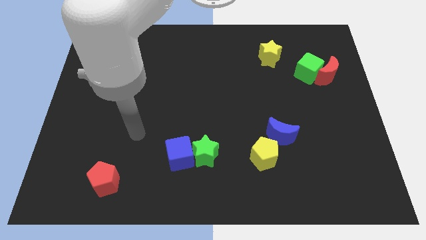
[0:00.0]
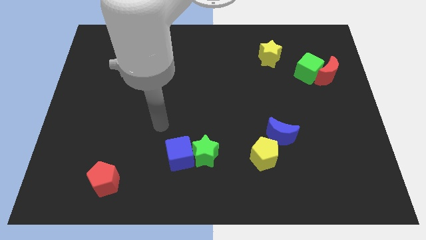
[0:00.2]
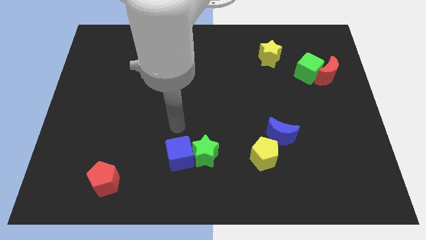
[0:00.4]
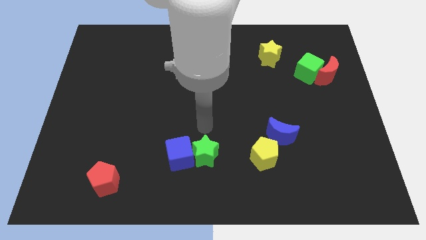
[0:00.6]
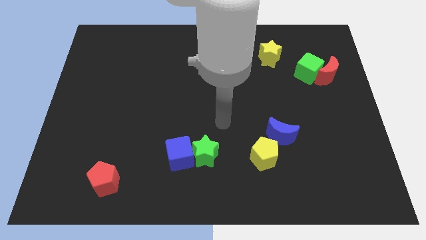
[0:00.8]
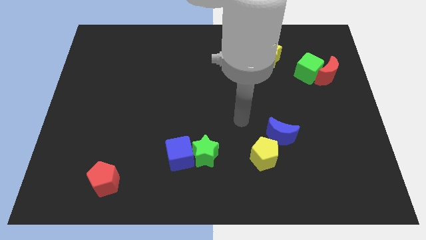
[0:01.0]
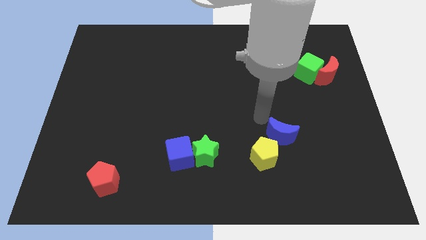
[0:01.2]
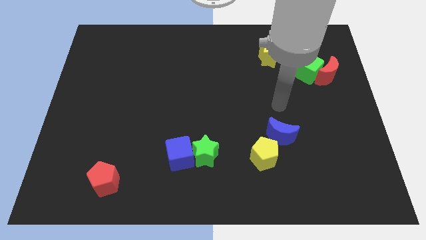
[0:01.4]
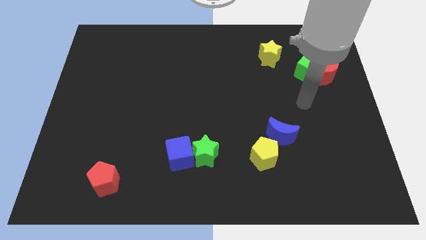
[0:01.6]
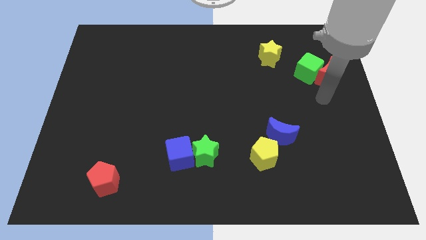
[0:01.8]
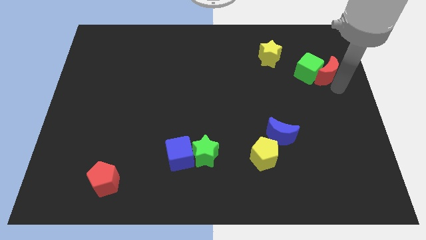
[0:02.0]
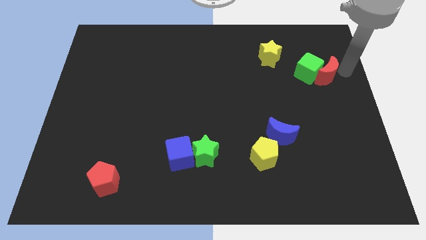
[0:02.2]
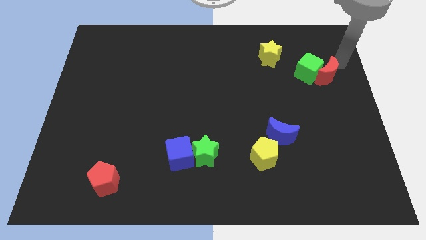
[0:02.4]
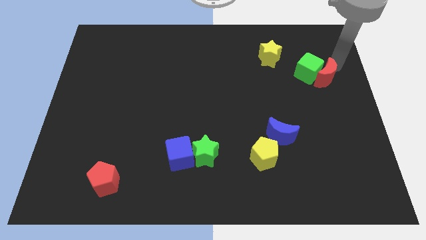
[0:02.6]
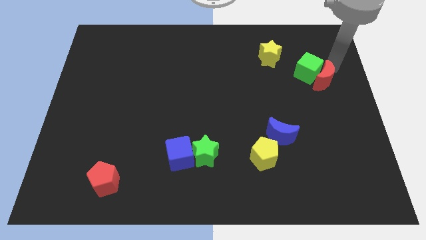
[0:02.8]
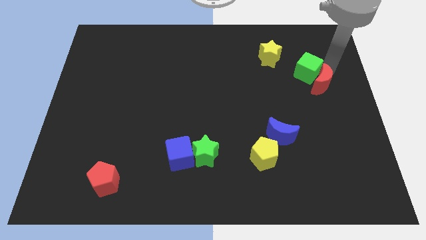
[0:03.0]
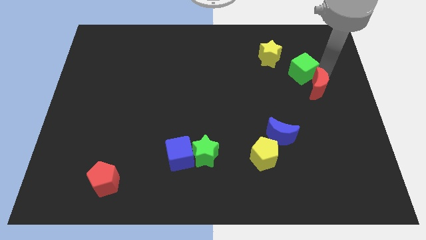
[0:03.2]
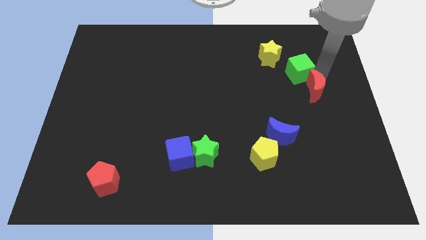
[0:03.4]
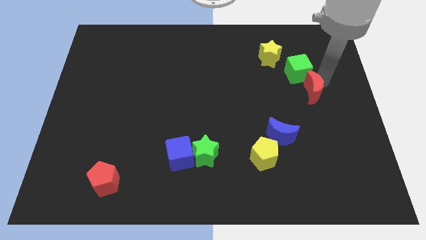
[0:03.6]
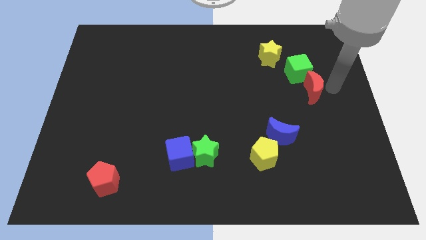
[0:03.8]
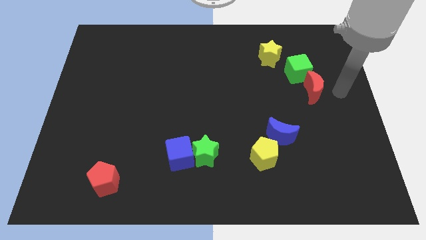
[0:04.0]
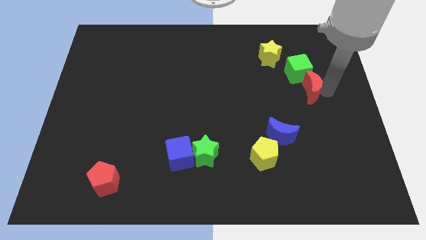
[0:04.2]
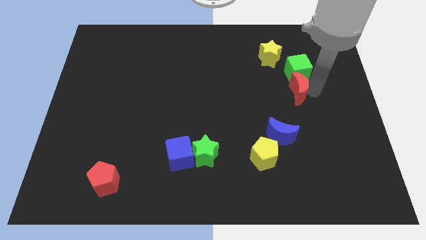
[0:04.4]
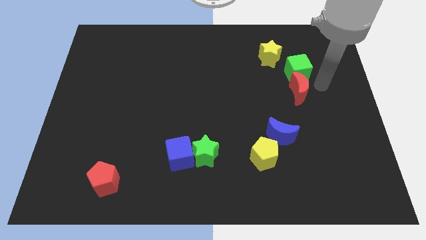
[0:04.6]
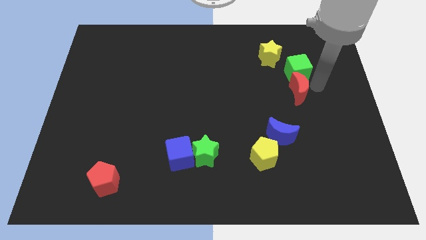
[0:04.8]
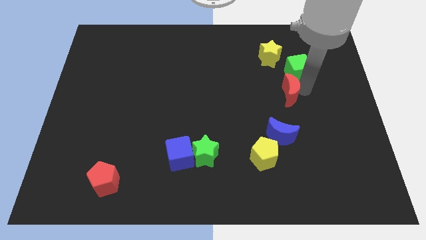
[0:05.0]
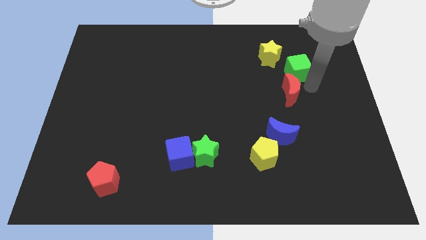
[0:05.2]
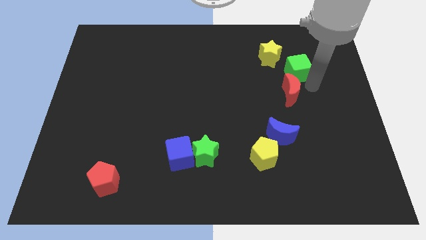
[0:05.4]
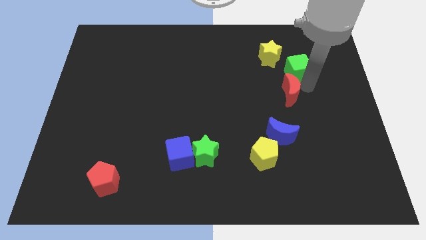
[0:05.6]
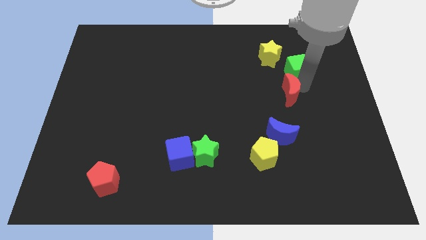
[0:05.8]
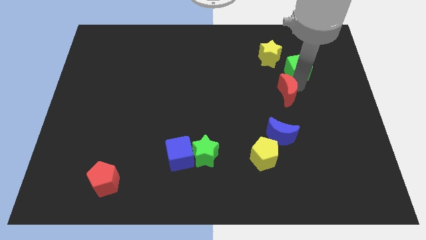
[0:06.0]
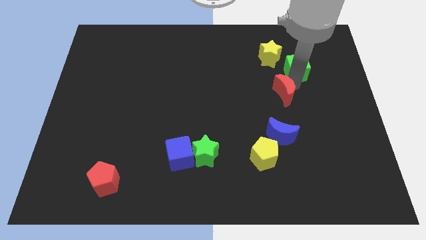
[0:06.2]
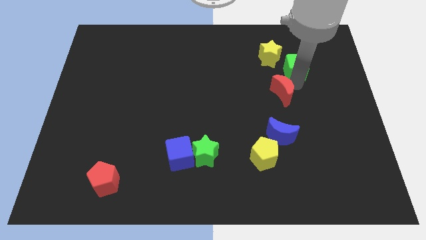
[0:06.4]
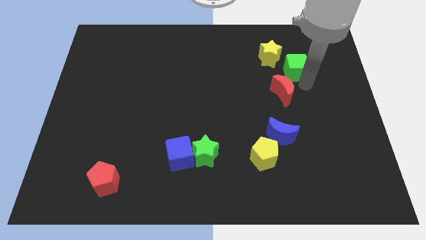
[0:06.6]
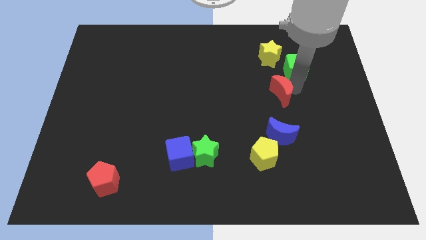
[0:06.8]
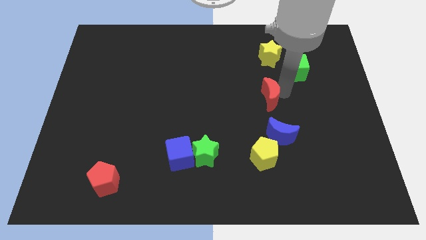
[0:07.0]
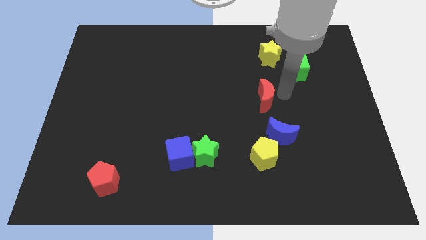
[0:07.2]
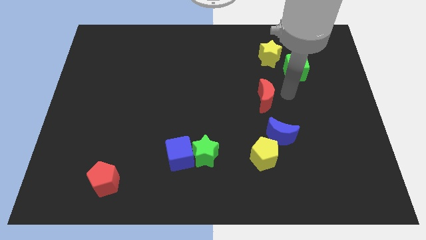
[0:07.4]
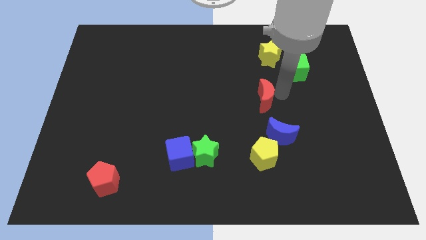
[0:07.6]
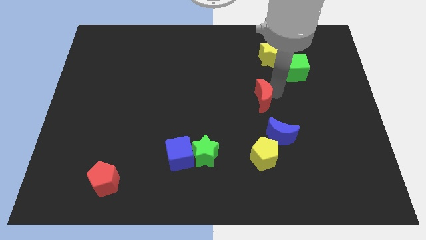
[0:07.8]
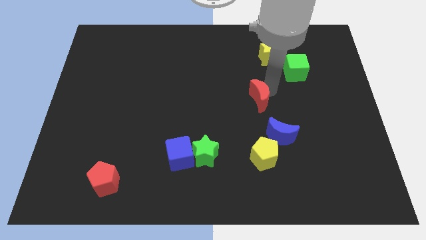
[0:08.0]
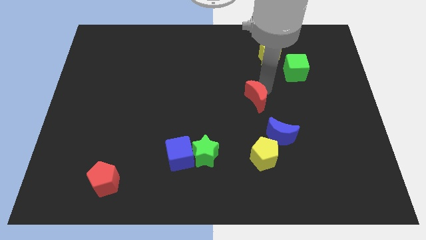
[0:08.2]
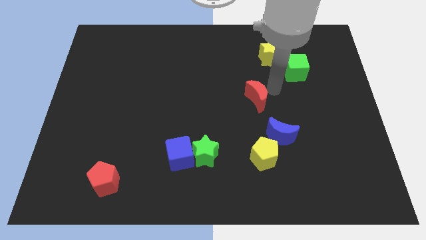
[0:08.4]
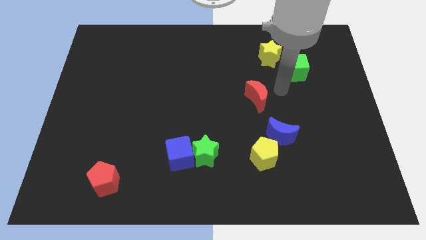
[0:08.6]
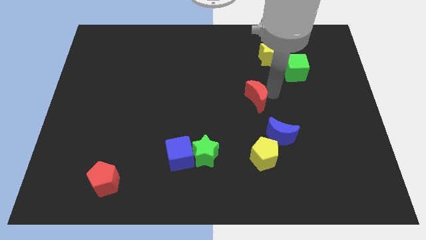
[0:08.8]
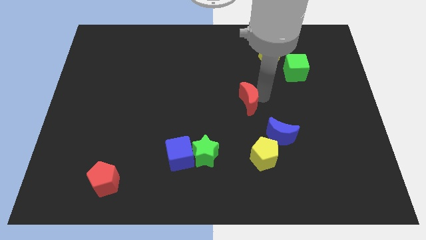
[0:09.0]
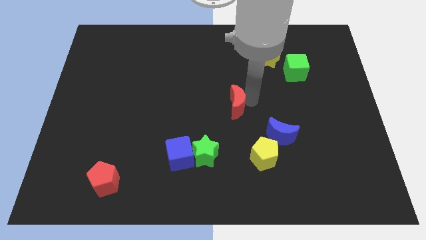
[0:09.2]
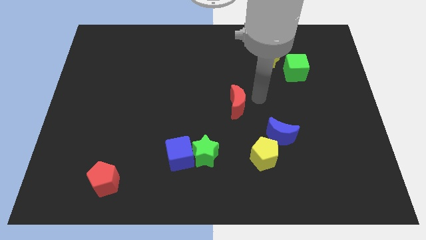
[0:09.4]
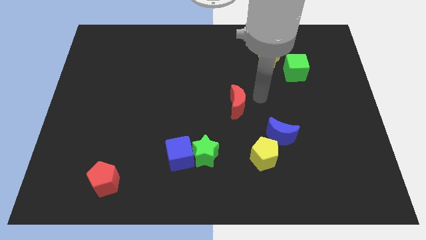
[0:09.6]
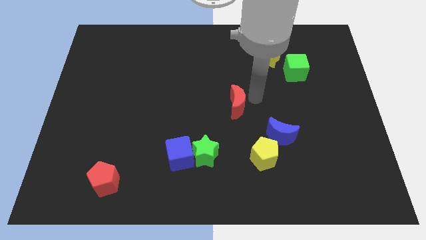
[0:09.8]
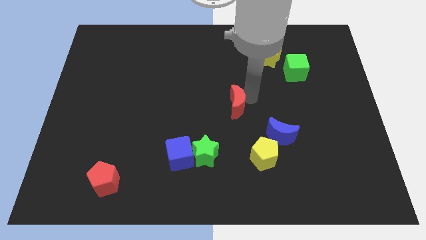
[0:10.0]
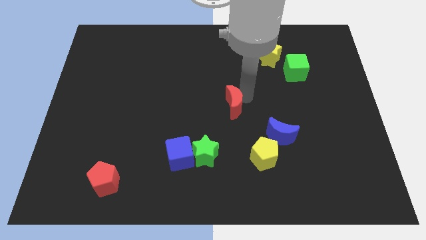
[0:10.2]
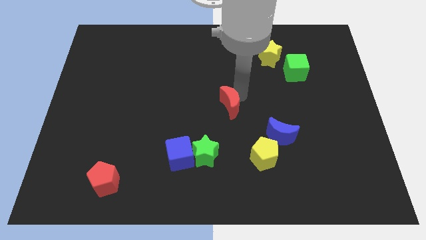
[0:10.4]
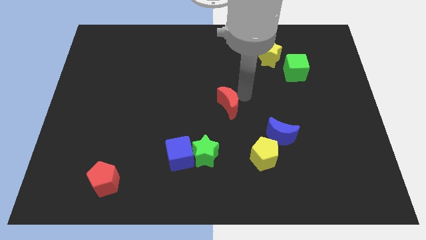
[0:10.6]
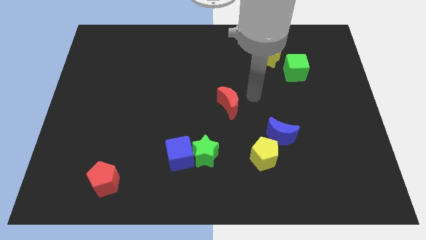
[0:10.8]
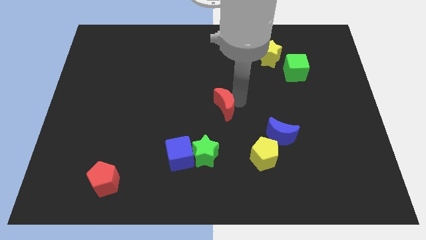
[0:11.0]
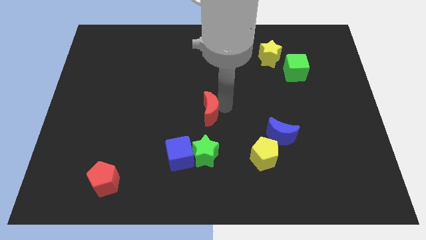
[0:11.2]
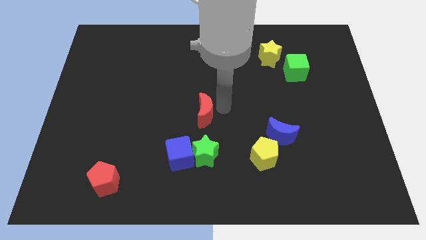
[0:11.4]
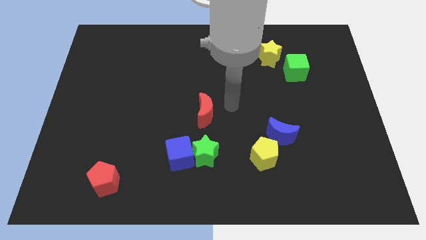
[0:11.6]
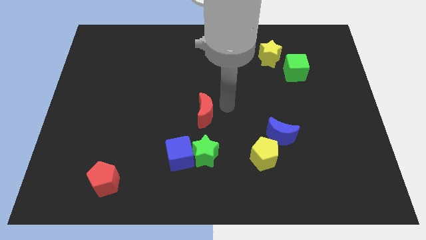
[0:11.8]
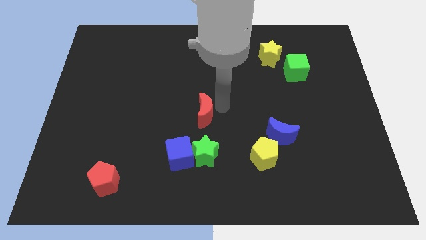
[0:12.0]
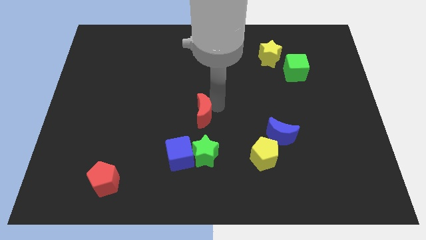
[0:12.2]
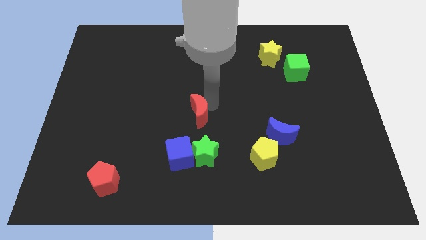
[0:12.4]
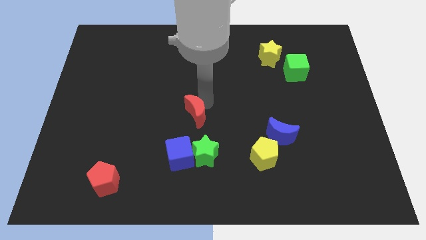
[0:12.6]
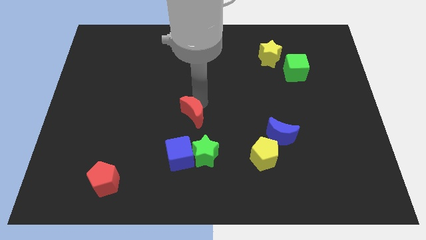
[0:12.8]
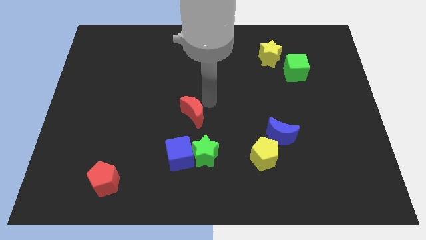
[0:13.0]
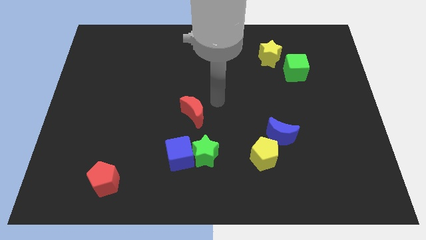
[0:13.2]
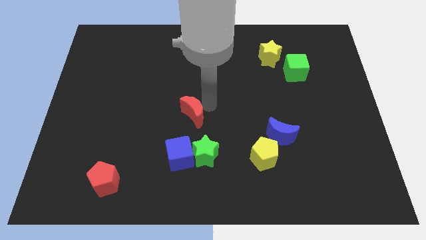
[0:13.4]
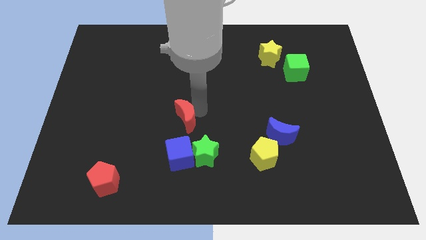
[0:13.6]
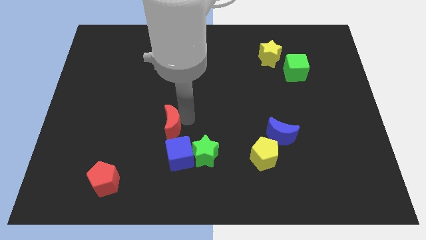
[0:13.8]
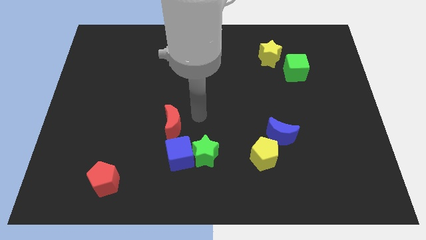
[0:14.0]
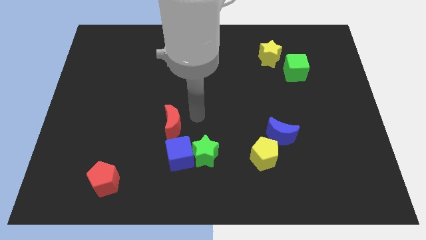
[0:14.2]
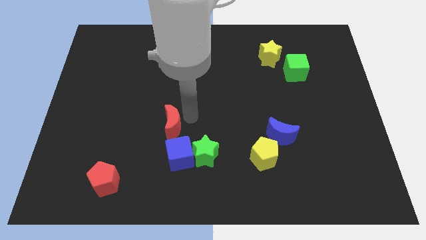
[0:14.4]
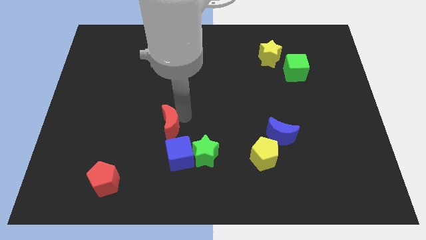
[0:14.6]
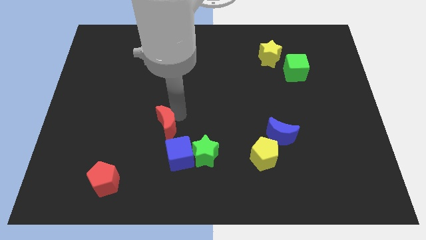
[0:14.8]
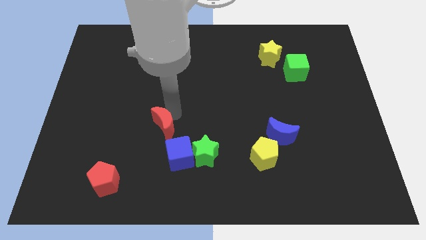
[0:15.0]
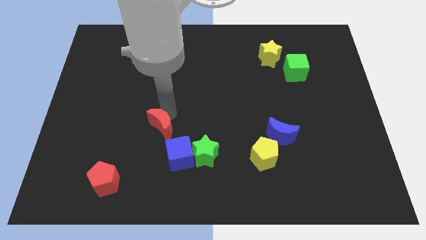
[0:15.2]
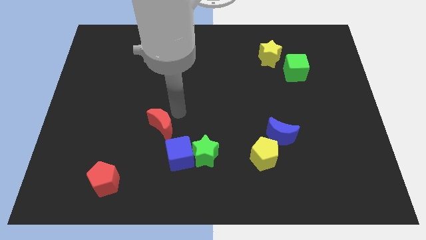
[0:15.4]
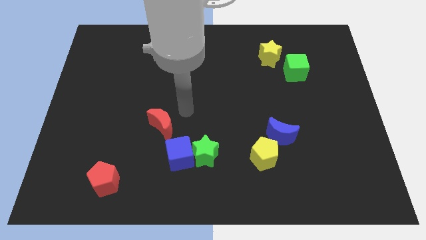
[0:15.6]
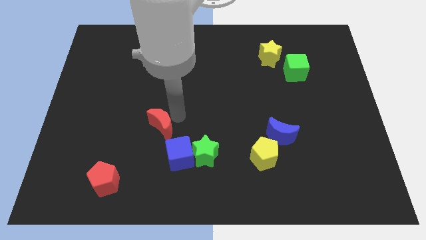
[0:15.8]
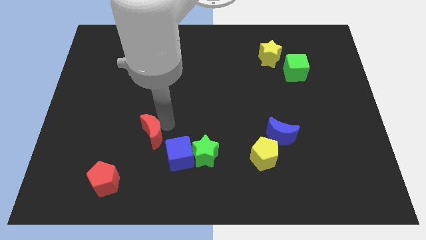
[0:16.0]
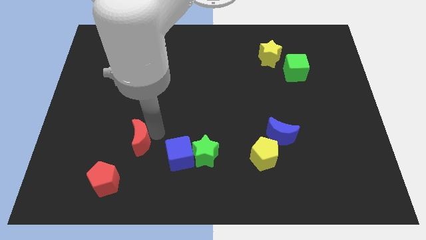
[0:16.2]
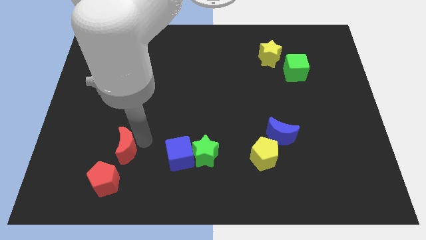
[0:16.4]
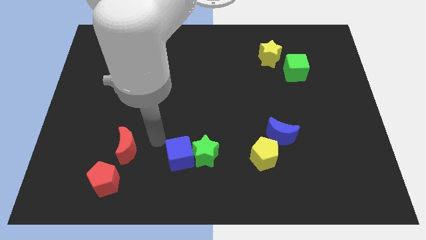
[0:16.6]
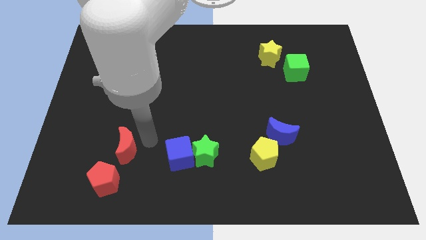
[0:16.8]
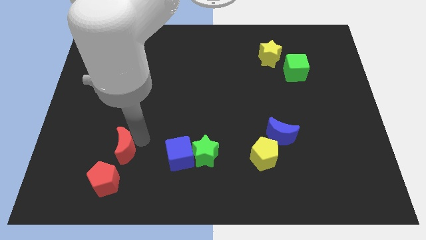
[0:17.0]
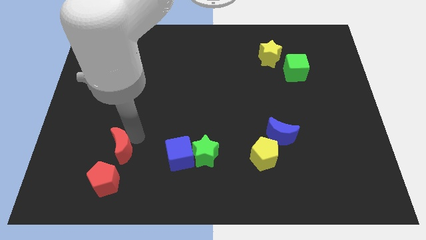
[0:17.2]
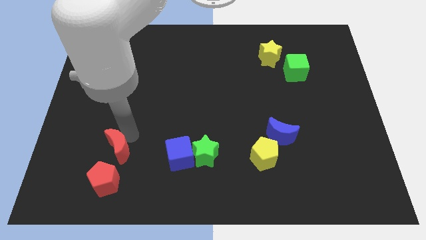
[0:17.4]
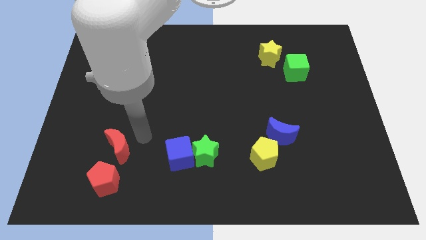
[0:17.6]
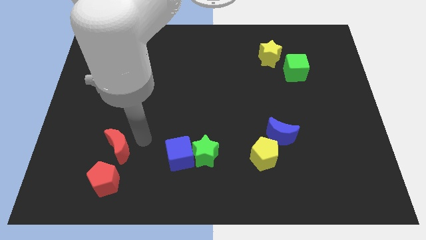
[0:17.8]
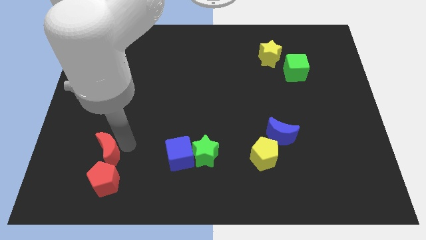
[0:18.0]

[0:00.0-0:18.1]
push the red moon to the top left of the red pentagon
